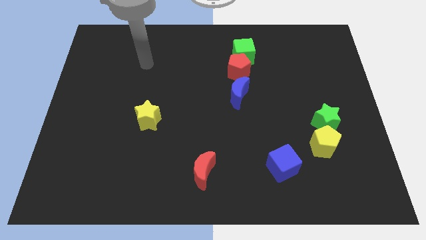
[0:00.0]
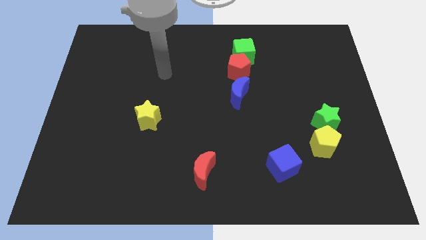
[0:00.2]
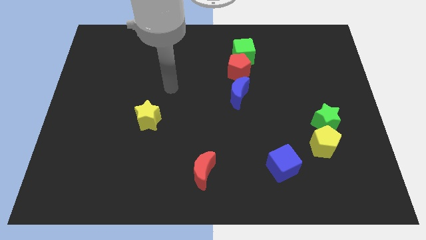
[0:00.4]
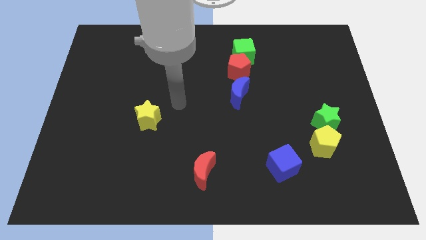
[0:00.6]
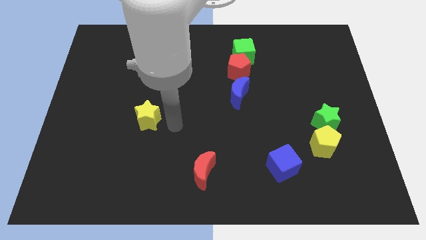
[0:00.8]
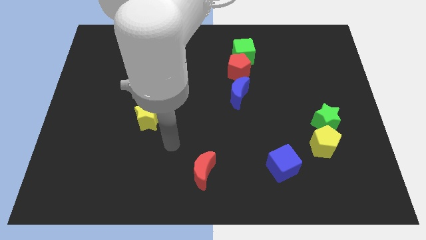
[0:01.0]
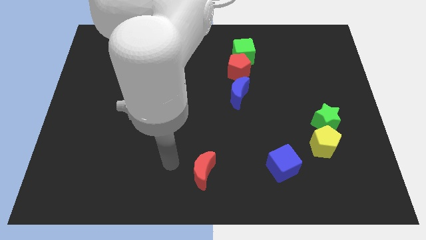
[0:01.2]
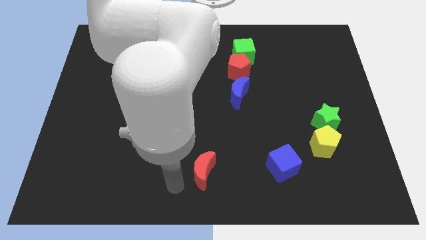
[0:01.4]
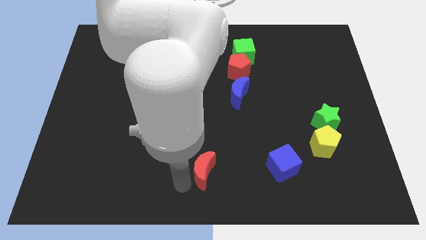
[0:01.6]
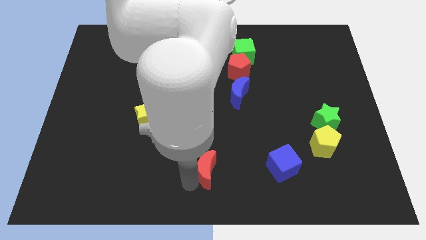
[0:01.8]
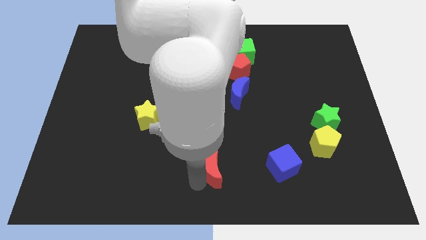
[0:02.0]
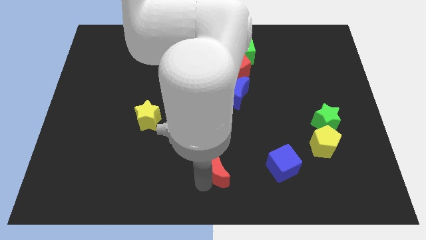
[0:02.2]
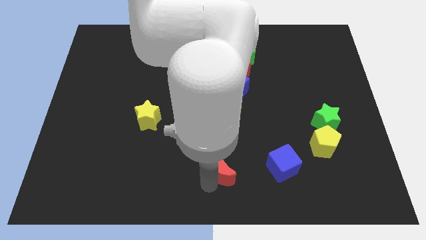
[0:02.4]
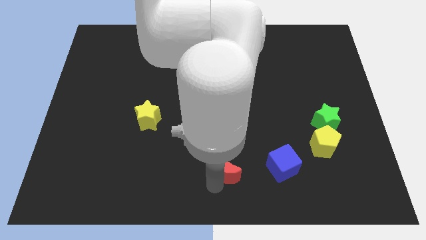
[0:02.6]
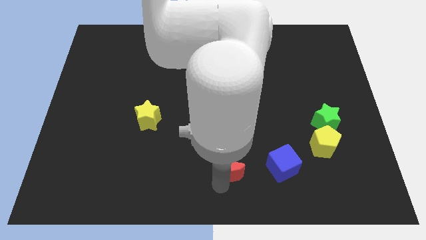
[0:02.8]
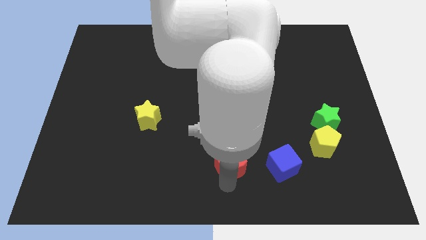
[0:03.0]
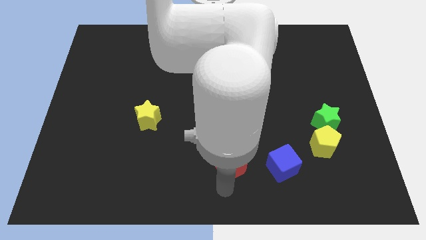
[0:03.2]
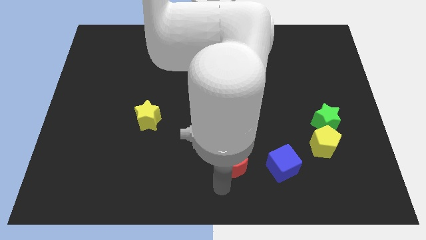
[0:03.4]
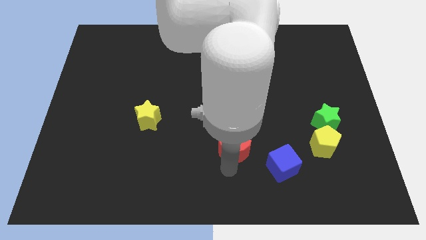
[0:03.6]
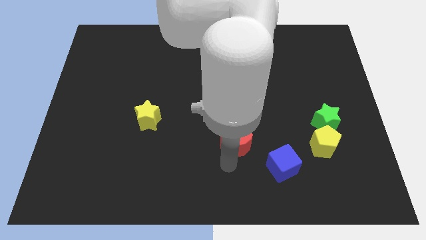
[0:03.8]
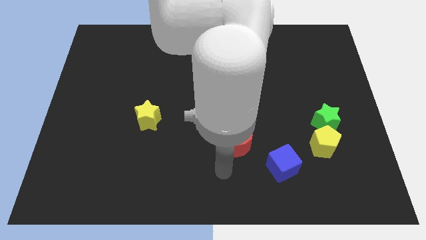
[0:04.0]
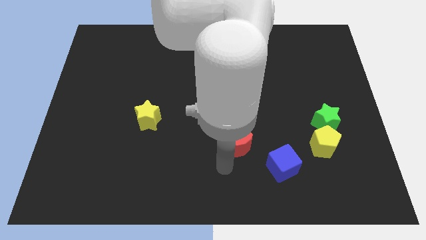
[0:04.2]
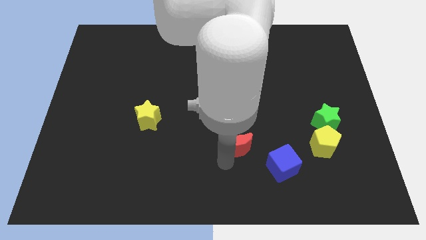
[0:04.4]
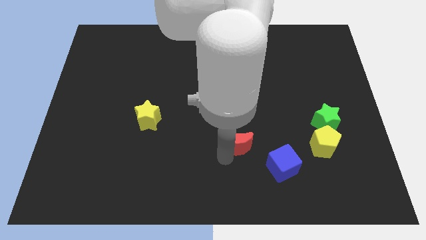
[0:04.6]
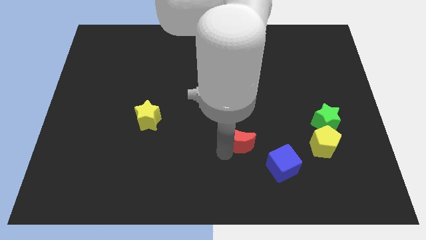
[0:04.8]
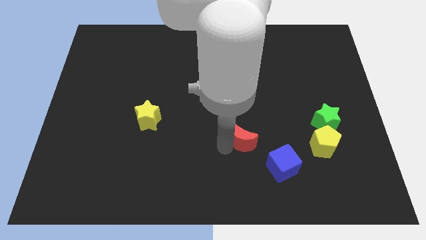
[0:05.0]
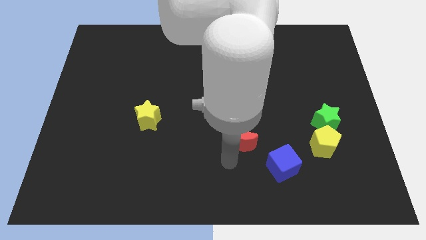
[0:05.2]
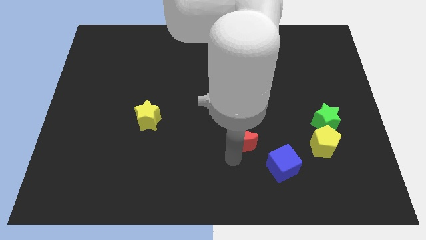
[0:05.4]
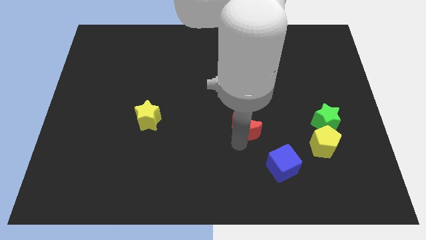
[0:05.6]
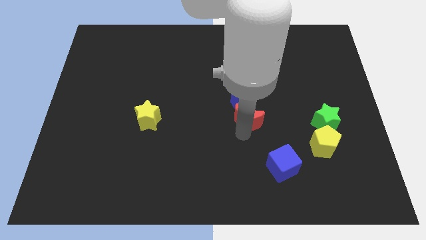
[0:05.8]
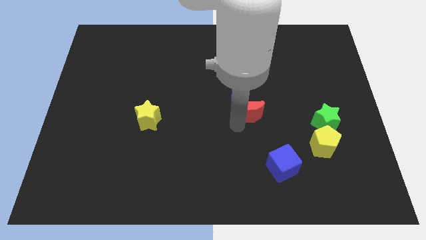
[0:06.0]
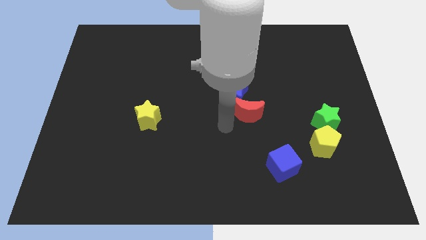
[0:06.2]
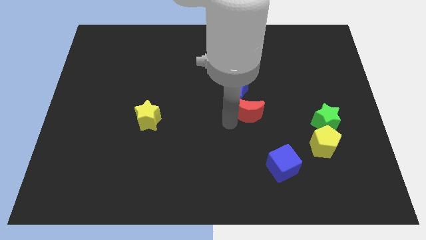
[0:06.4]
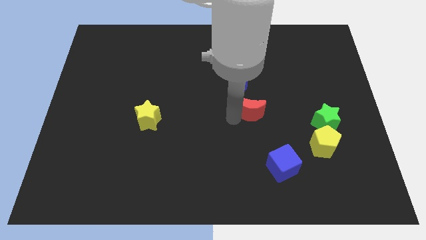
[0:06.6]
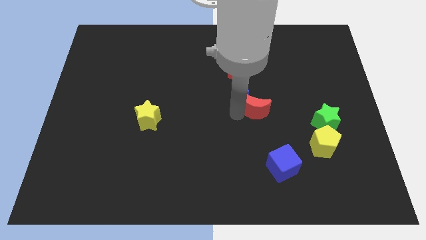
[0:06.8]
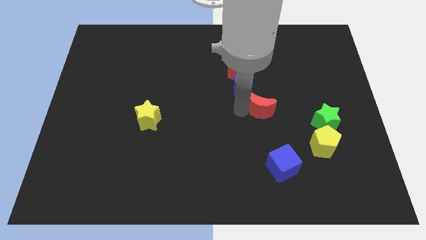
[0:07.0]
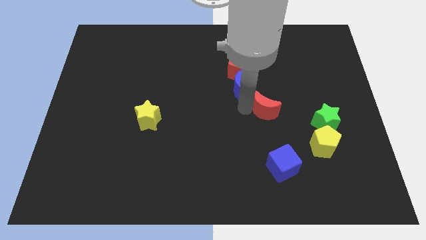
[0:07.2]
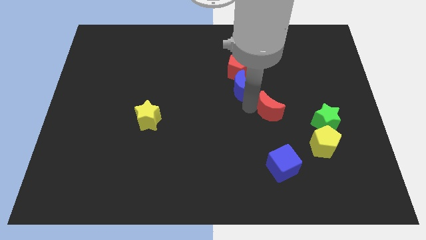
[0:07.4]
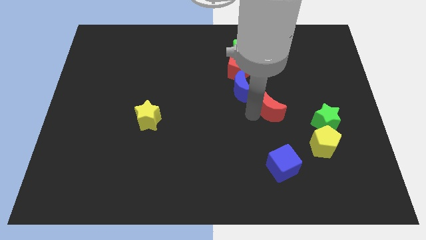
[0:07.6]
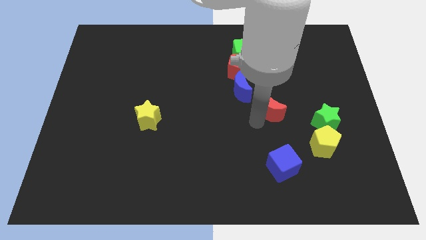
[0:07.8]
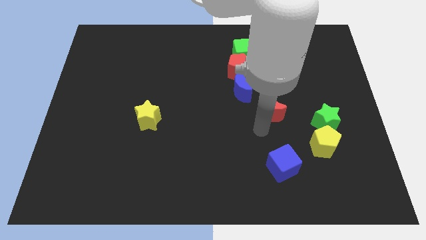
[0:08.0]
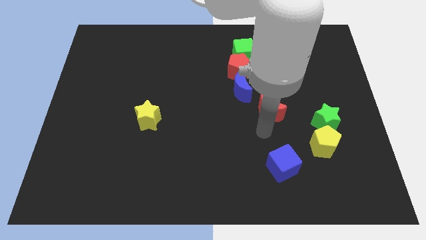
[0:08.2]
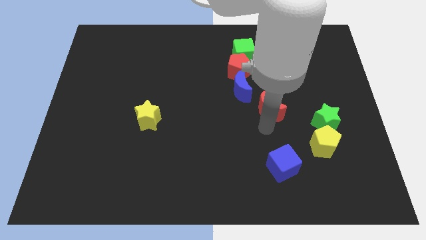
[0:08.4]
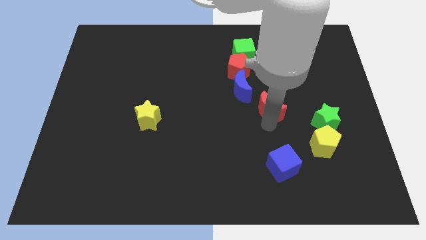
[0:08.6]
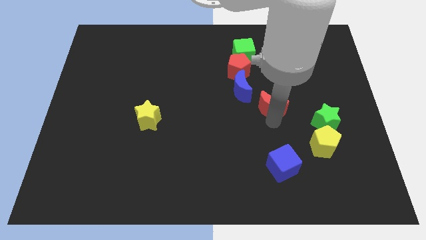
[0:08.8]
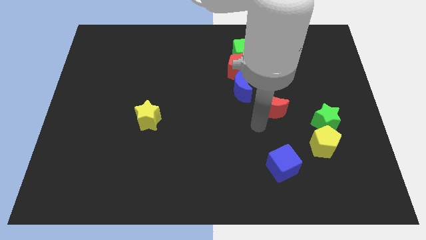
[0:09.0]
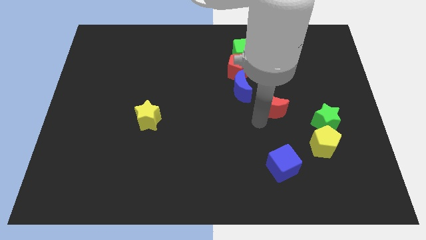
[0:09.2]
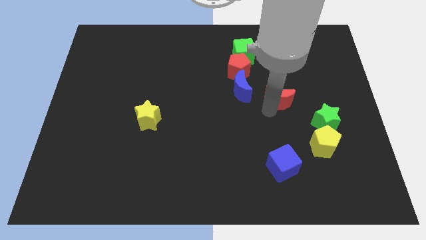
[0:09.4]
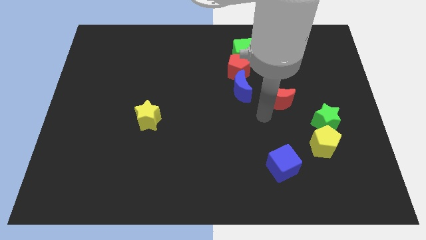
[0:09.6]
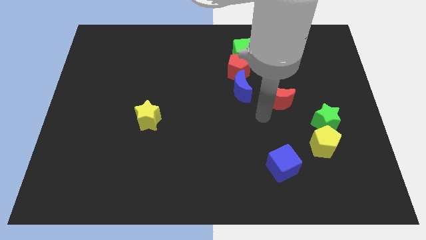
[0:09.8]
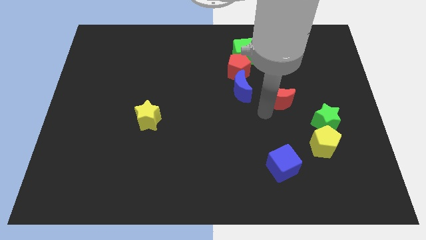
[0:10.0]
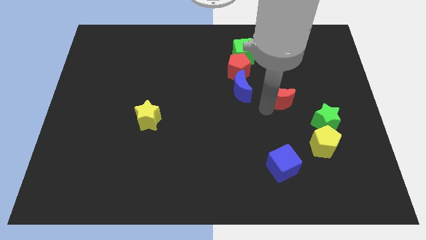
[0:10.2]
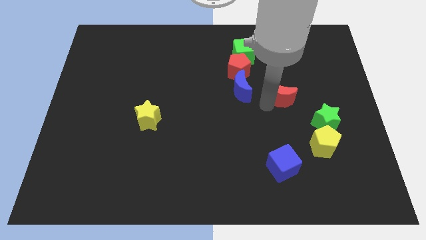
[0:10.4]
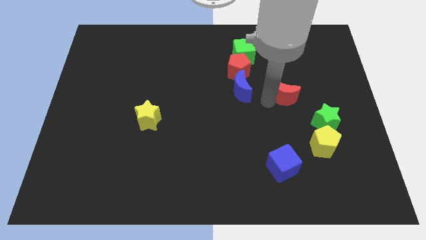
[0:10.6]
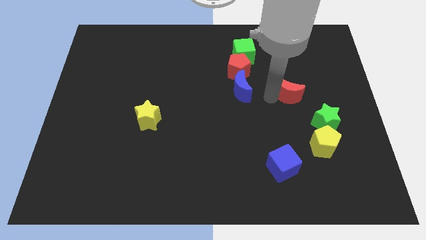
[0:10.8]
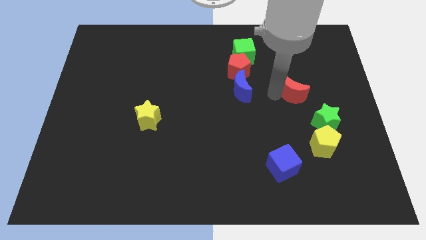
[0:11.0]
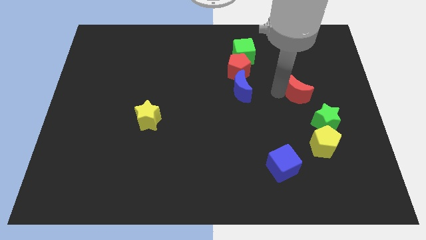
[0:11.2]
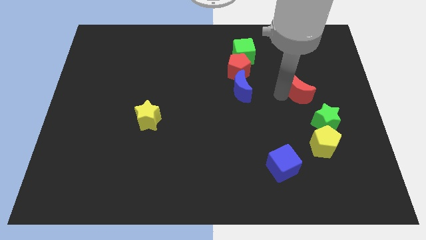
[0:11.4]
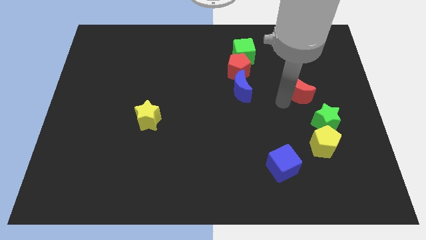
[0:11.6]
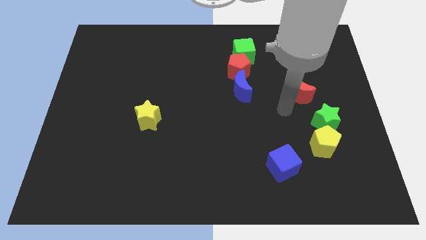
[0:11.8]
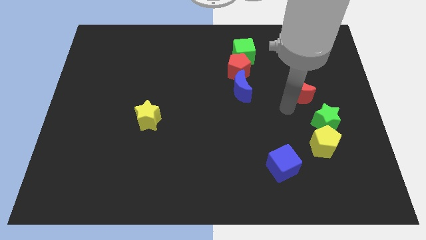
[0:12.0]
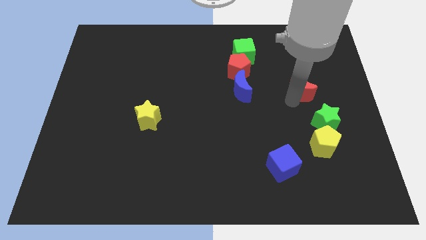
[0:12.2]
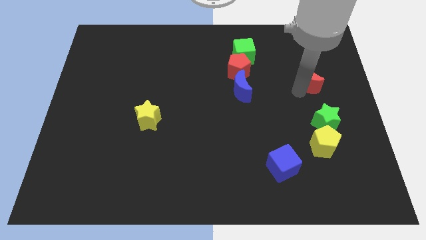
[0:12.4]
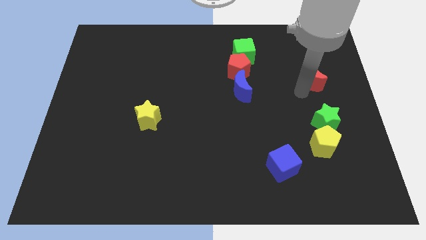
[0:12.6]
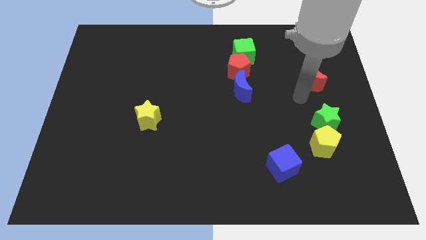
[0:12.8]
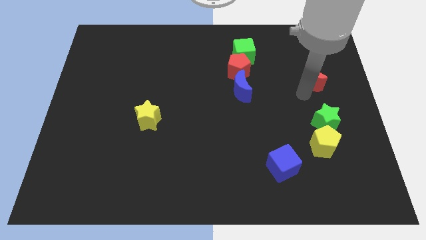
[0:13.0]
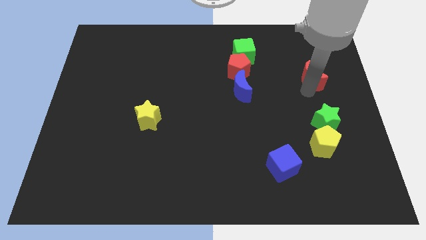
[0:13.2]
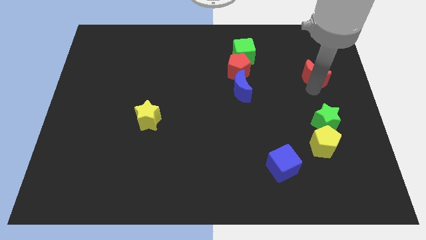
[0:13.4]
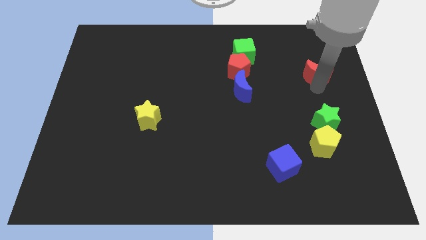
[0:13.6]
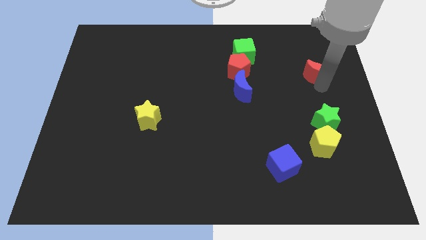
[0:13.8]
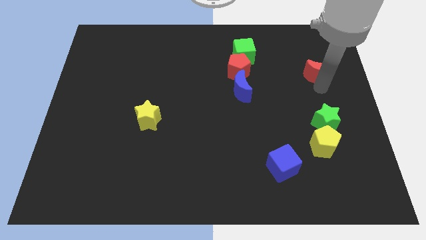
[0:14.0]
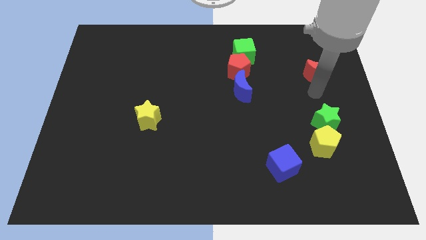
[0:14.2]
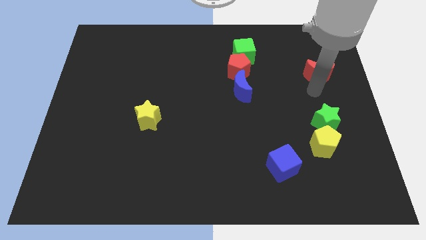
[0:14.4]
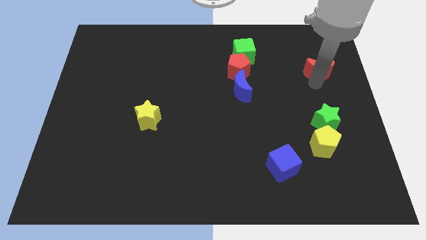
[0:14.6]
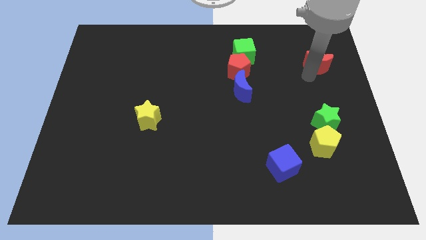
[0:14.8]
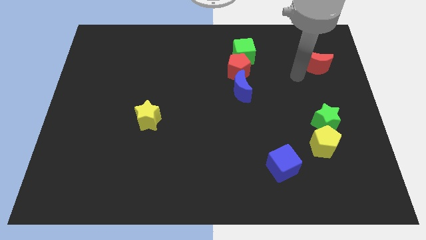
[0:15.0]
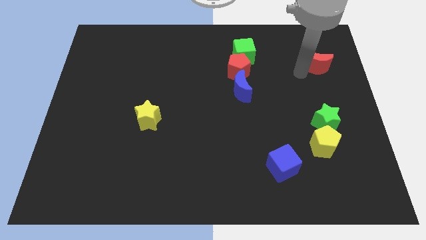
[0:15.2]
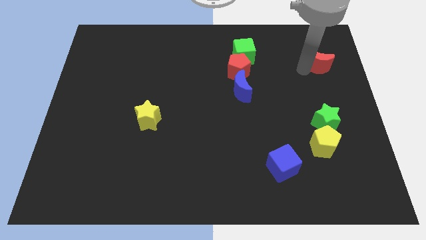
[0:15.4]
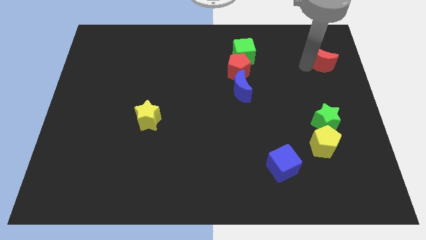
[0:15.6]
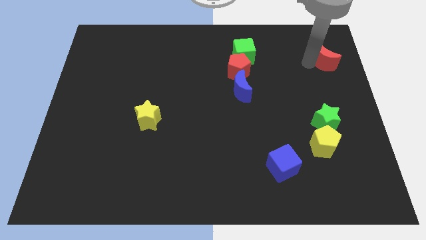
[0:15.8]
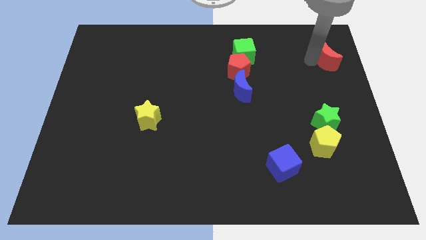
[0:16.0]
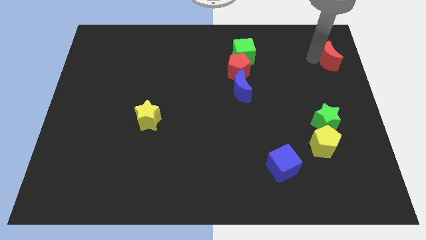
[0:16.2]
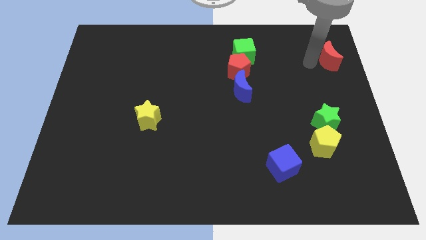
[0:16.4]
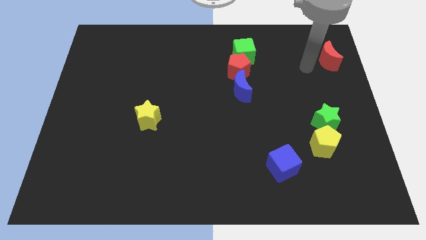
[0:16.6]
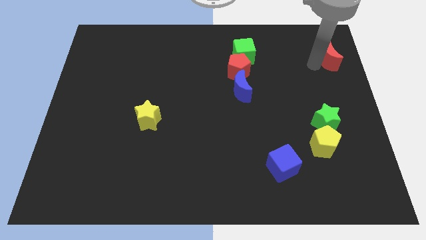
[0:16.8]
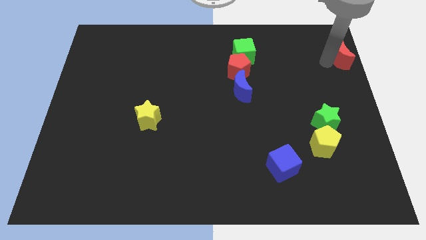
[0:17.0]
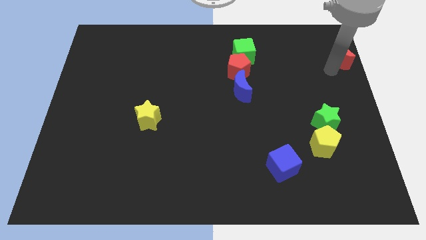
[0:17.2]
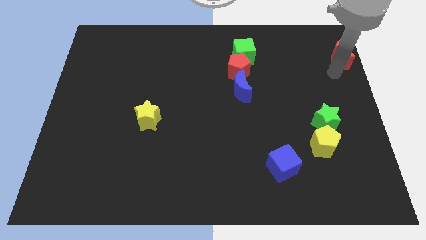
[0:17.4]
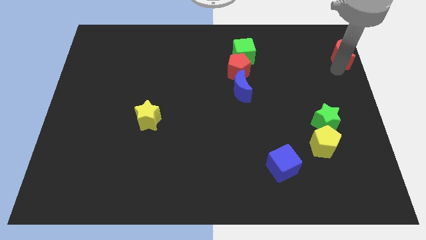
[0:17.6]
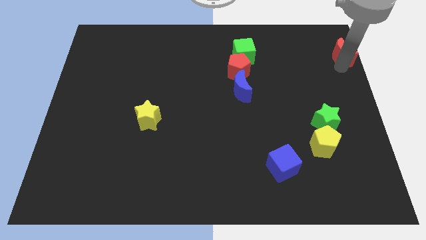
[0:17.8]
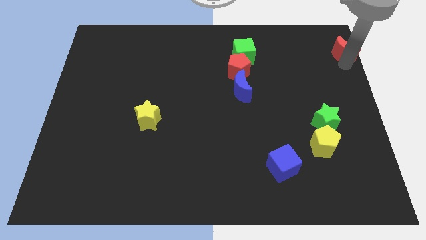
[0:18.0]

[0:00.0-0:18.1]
slide the red moon to the top right
